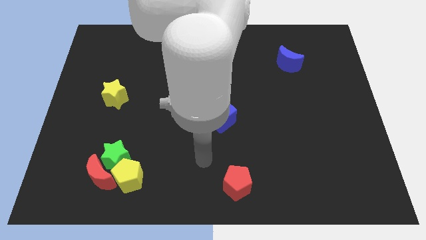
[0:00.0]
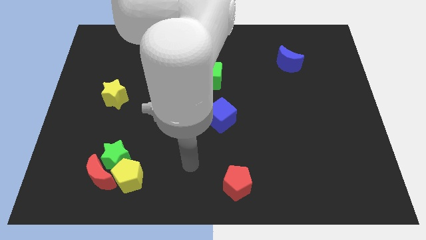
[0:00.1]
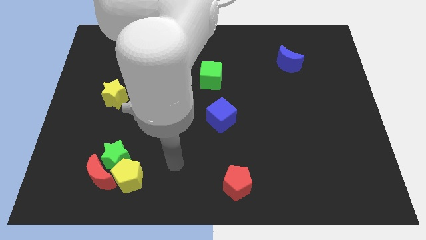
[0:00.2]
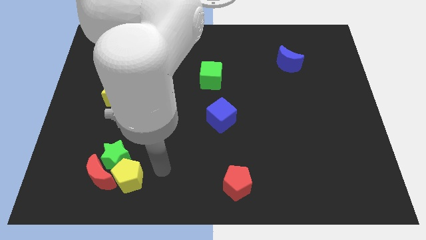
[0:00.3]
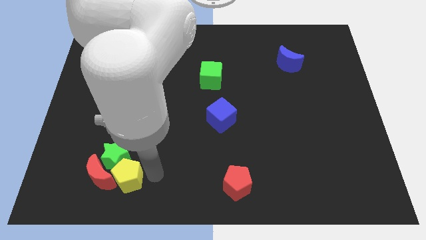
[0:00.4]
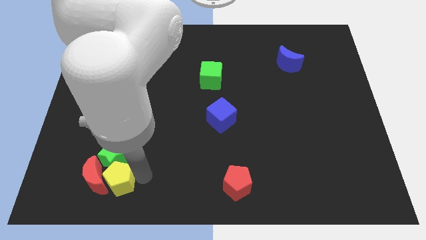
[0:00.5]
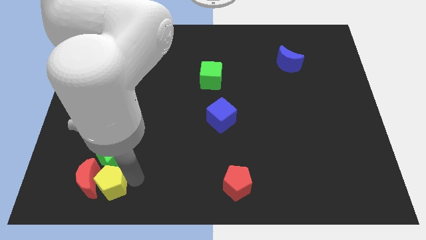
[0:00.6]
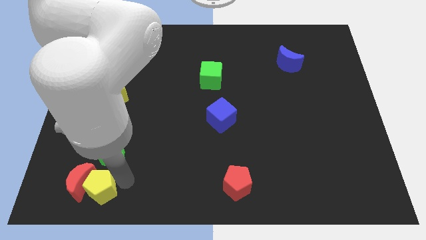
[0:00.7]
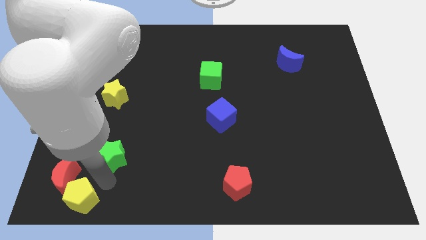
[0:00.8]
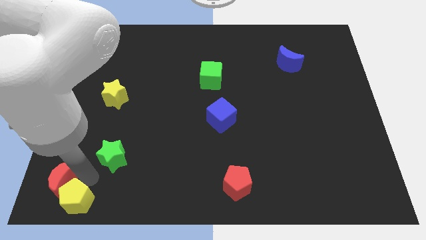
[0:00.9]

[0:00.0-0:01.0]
separate the green star from the red moon and yellow pentagon

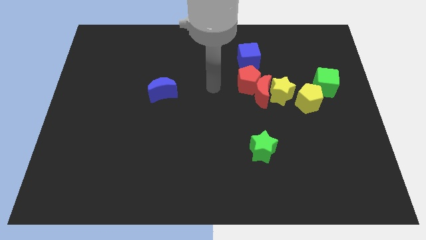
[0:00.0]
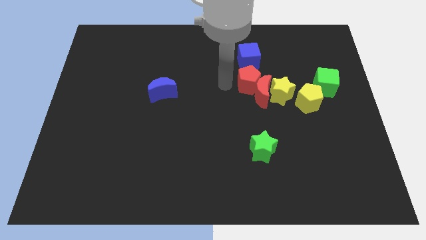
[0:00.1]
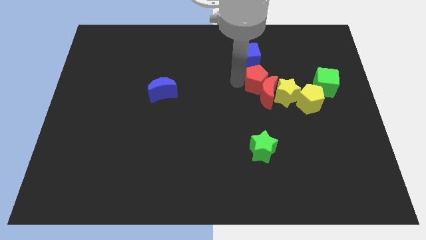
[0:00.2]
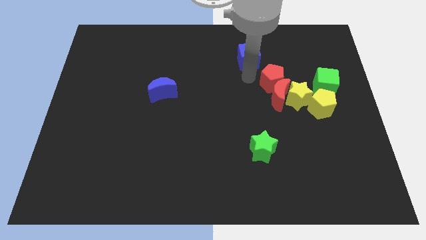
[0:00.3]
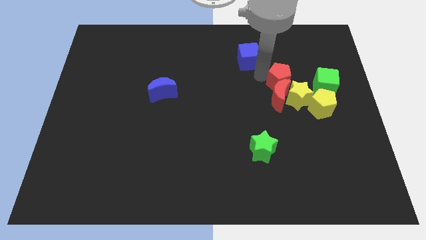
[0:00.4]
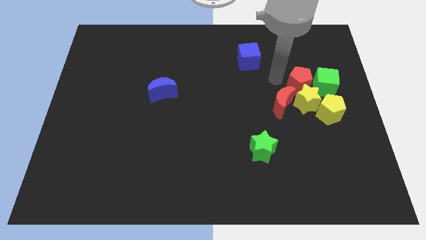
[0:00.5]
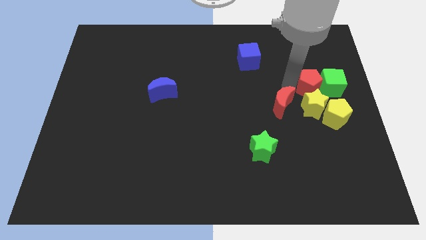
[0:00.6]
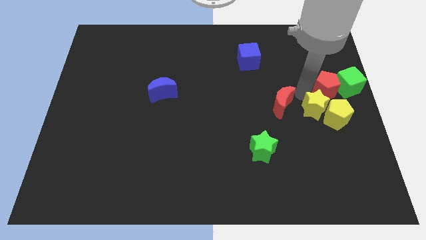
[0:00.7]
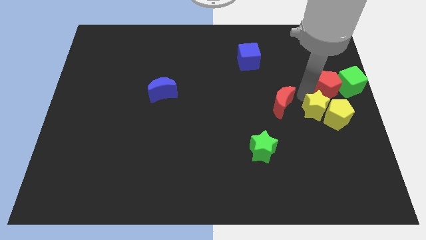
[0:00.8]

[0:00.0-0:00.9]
pull the red moon apart from the yellow star and red pentagon

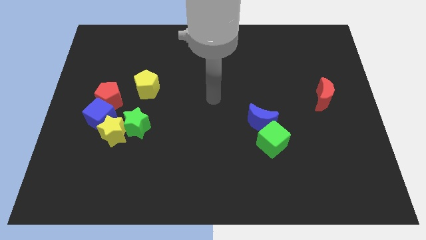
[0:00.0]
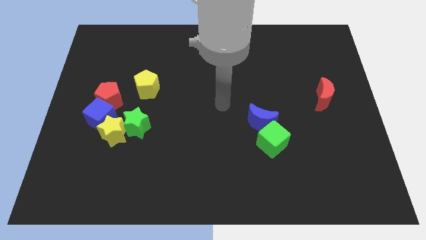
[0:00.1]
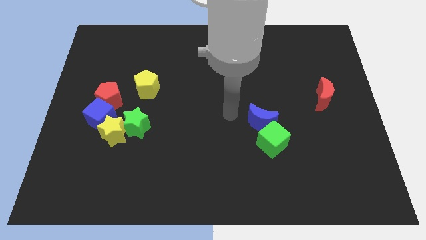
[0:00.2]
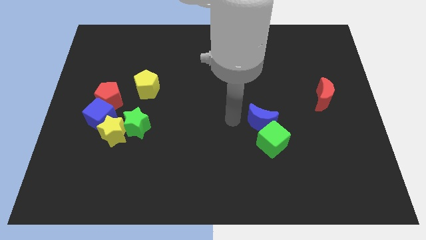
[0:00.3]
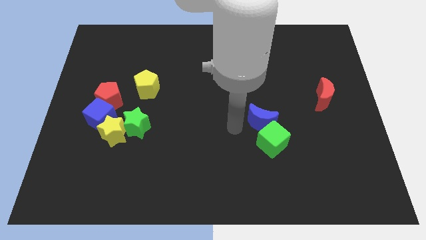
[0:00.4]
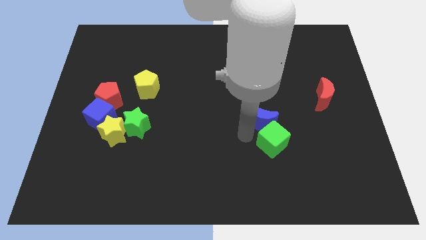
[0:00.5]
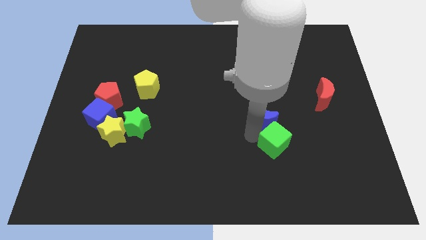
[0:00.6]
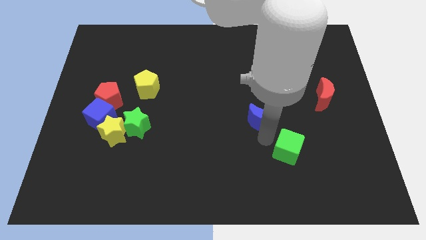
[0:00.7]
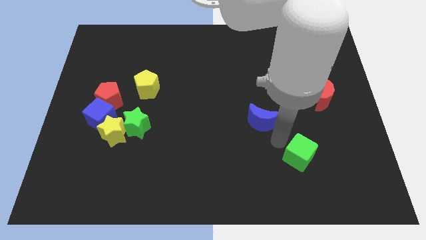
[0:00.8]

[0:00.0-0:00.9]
separate the blue moon from the green cube

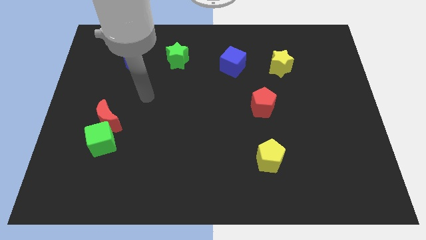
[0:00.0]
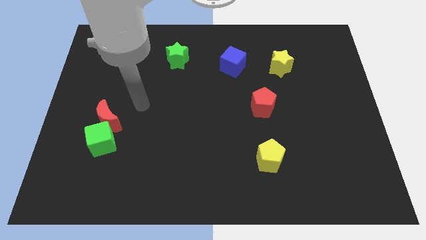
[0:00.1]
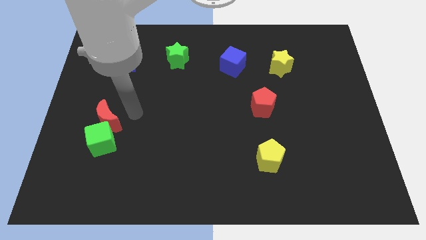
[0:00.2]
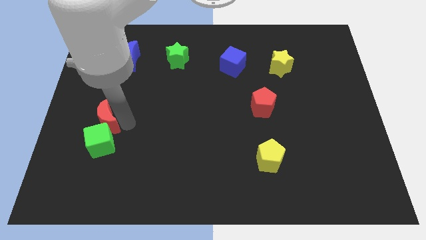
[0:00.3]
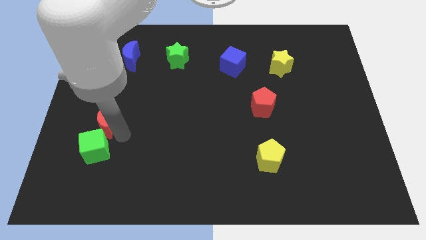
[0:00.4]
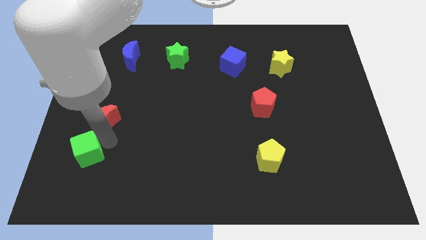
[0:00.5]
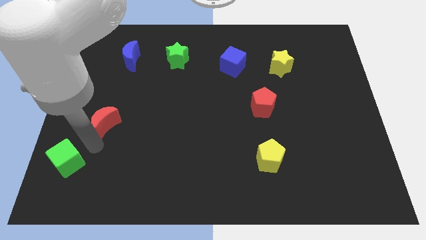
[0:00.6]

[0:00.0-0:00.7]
separate the red moon from the green cube

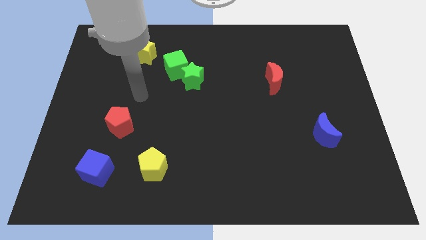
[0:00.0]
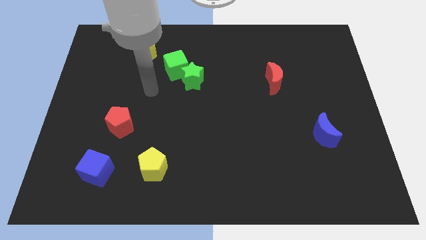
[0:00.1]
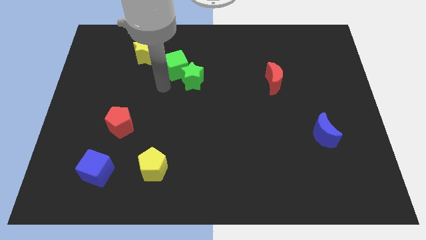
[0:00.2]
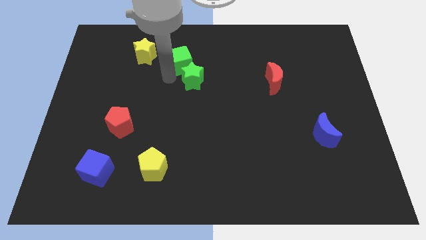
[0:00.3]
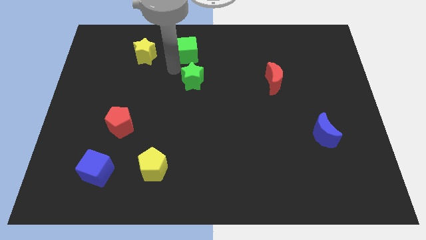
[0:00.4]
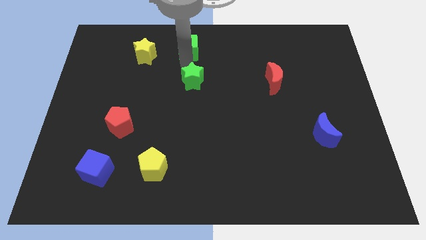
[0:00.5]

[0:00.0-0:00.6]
move the green star away from the green cube

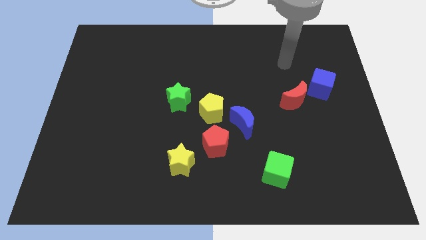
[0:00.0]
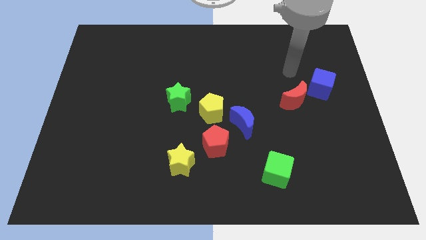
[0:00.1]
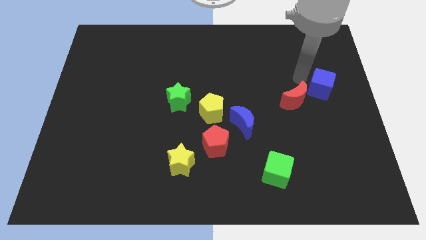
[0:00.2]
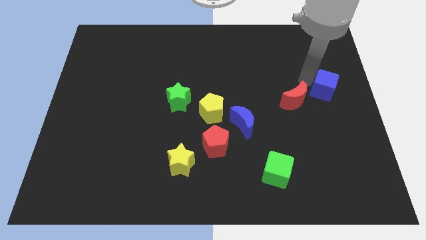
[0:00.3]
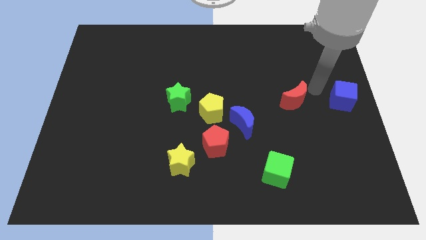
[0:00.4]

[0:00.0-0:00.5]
pull the red moon apart from the blue cube

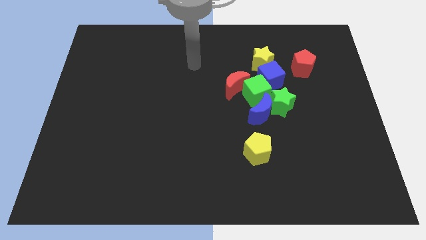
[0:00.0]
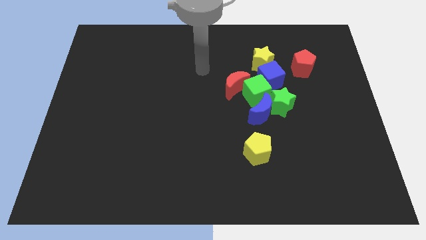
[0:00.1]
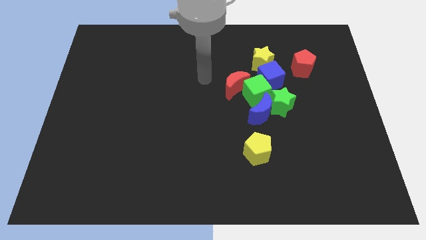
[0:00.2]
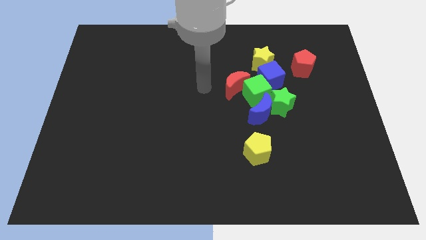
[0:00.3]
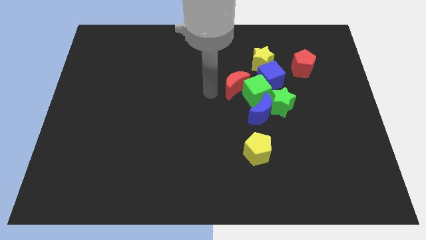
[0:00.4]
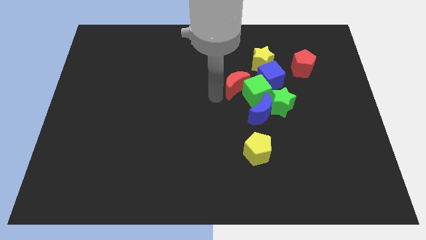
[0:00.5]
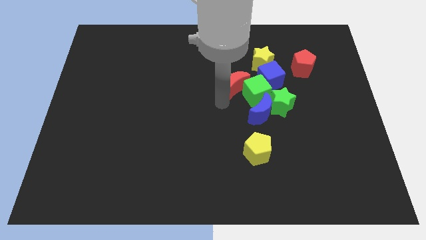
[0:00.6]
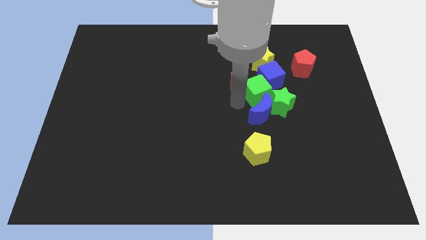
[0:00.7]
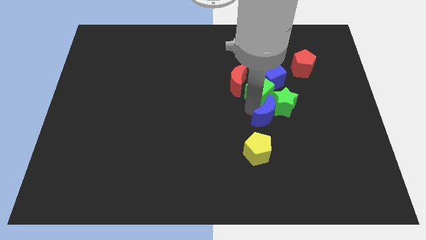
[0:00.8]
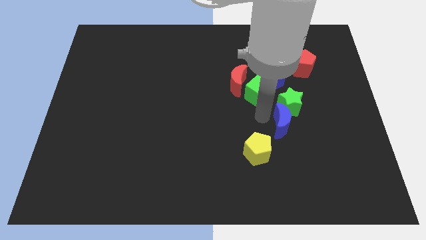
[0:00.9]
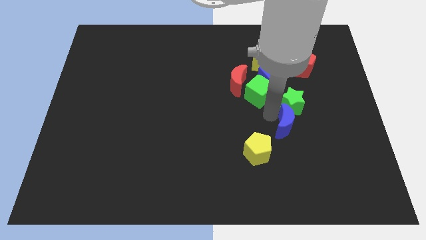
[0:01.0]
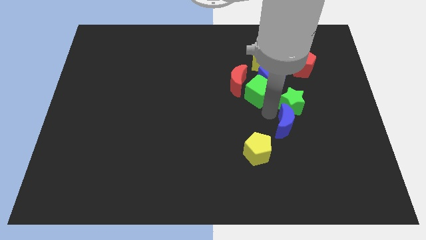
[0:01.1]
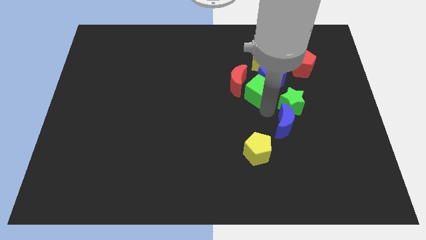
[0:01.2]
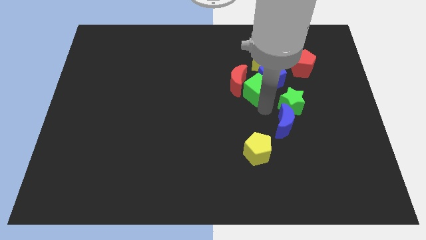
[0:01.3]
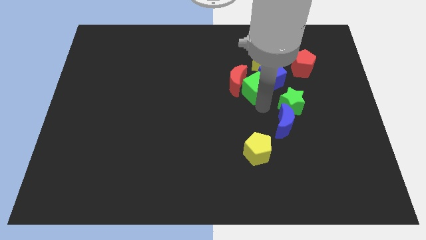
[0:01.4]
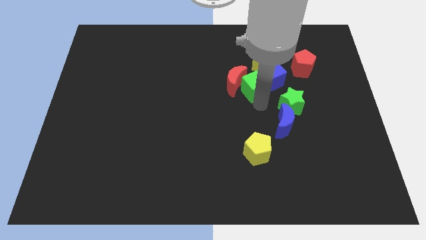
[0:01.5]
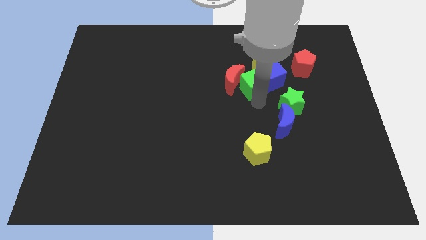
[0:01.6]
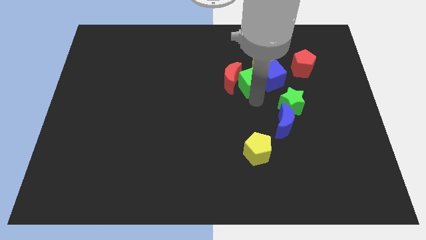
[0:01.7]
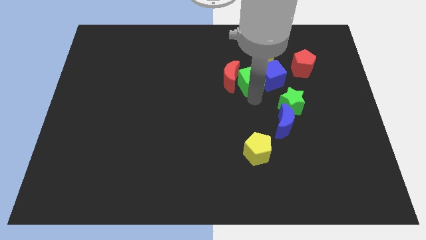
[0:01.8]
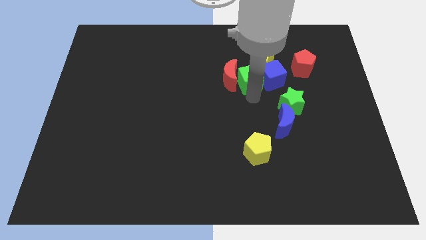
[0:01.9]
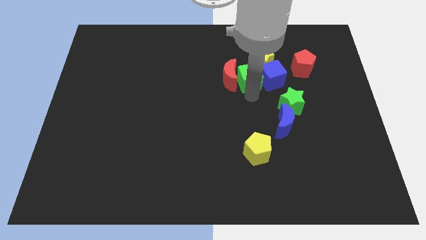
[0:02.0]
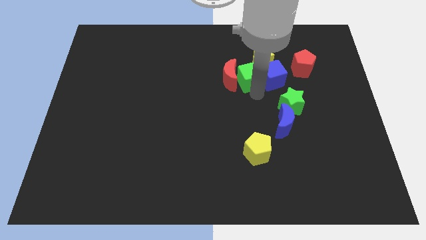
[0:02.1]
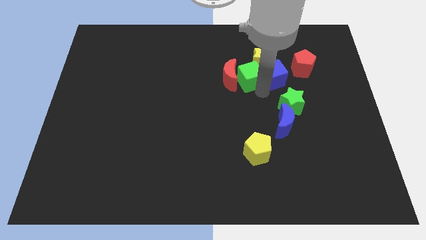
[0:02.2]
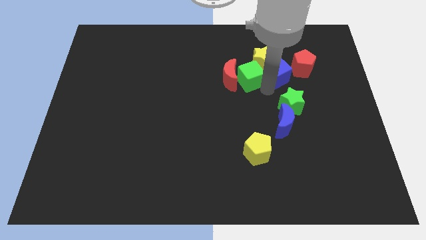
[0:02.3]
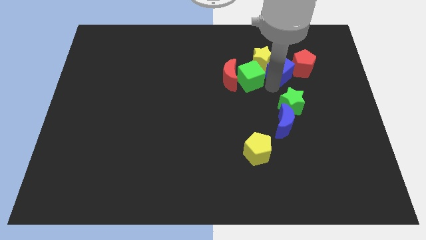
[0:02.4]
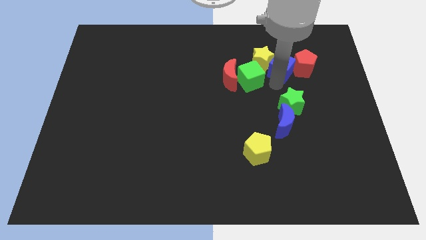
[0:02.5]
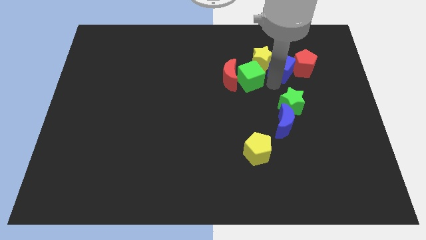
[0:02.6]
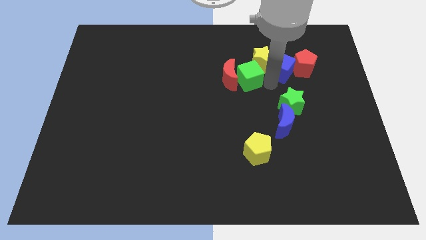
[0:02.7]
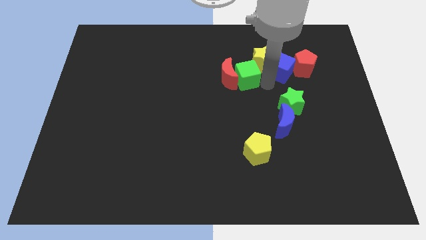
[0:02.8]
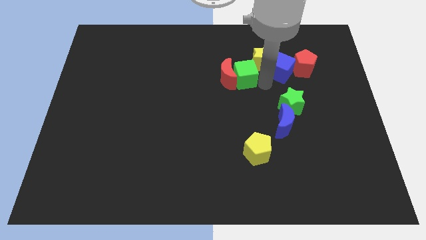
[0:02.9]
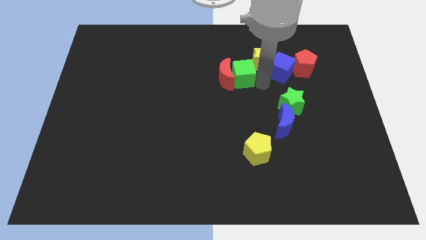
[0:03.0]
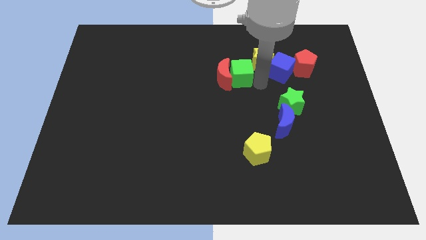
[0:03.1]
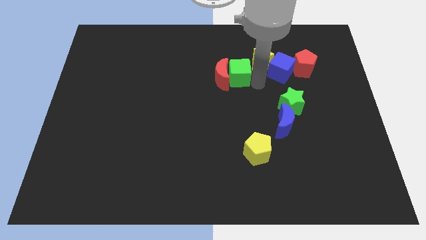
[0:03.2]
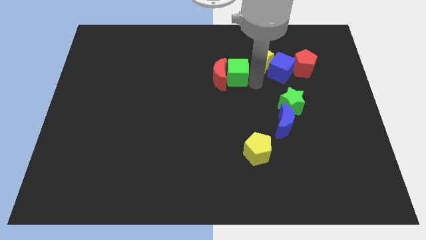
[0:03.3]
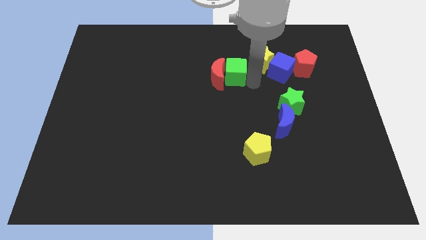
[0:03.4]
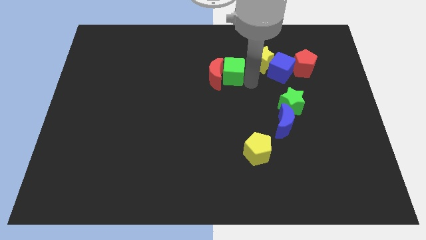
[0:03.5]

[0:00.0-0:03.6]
move the green cube away from the group of blocks

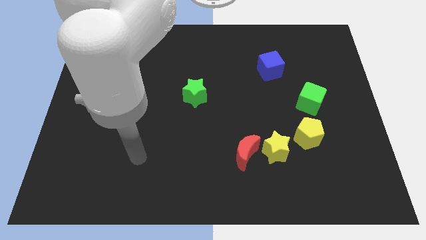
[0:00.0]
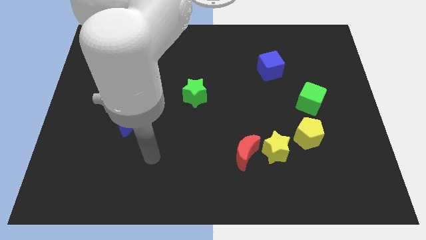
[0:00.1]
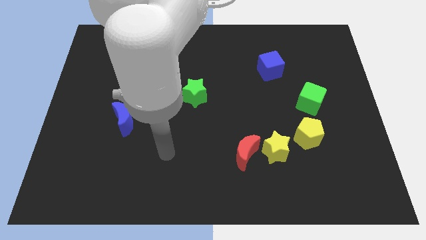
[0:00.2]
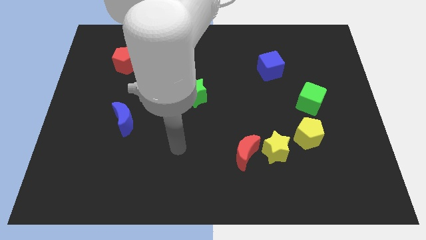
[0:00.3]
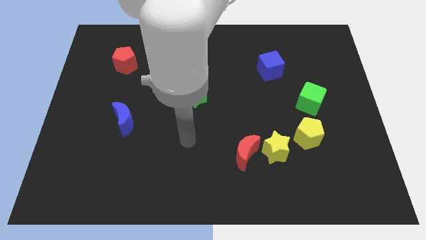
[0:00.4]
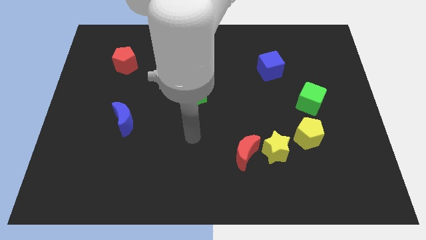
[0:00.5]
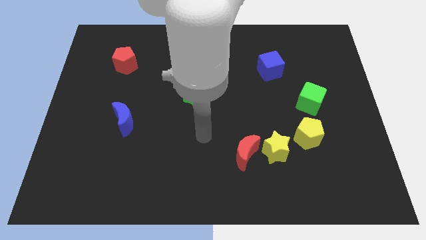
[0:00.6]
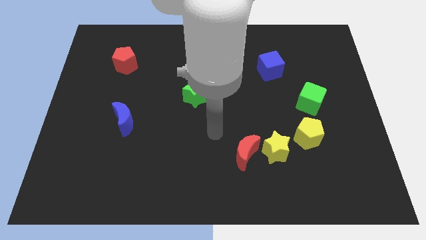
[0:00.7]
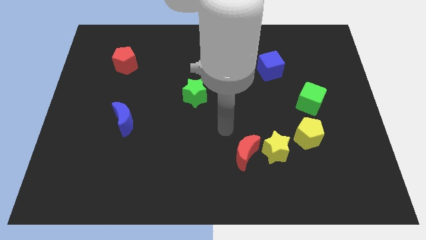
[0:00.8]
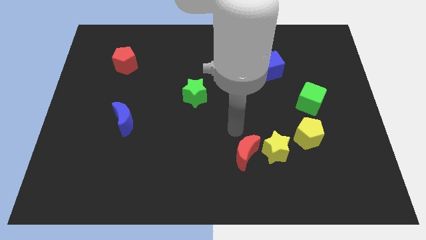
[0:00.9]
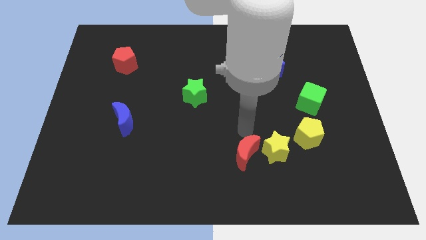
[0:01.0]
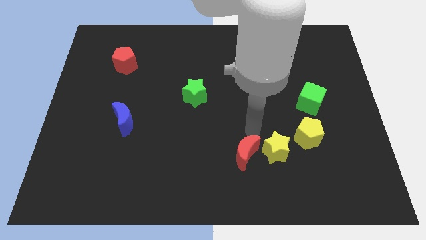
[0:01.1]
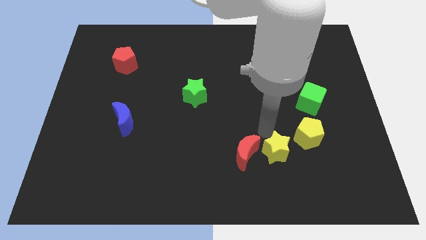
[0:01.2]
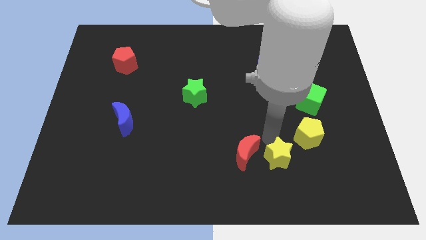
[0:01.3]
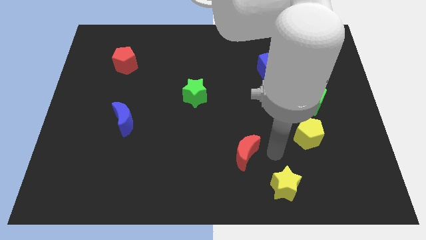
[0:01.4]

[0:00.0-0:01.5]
separate the red moon from the yellow star
